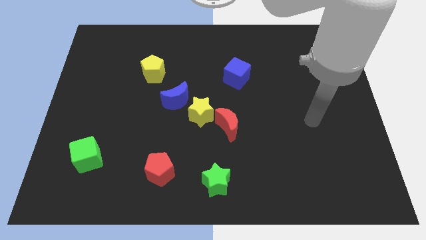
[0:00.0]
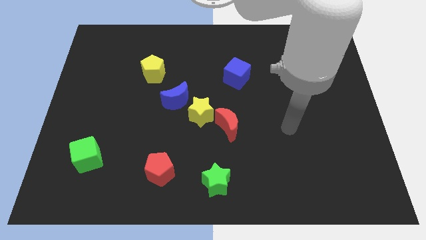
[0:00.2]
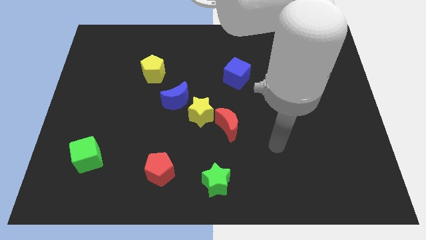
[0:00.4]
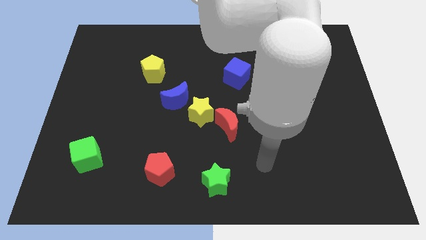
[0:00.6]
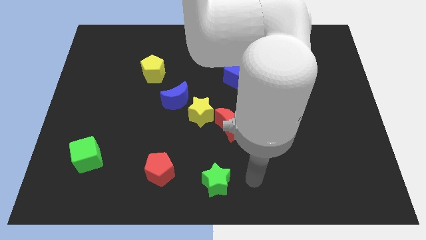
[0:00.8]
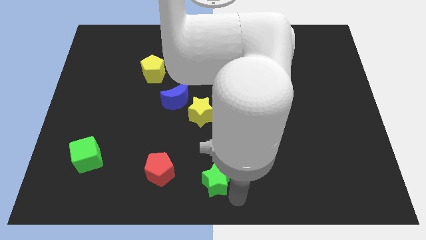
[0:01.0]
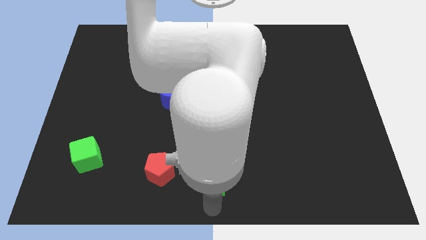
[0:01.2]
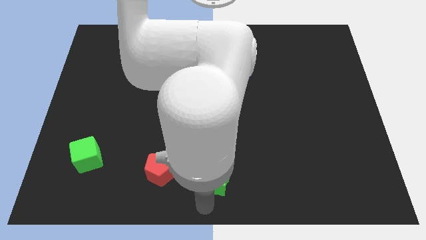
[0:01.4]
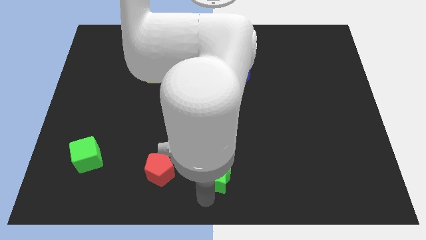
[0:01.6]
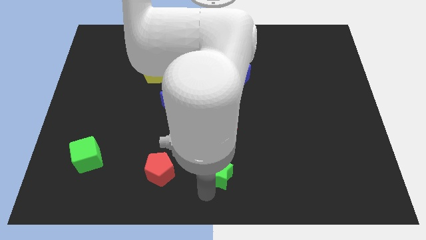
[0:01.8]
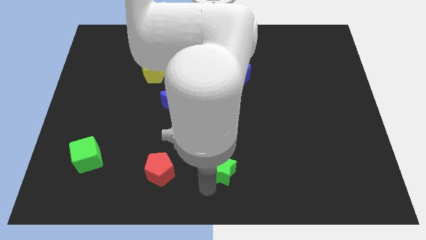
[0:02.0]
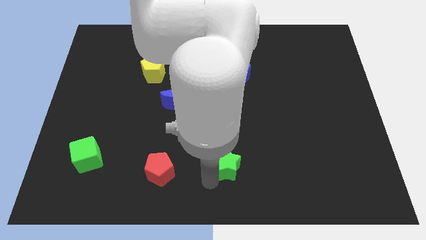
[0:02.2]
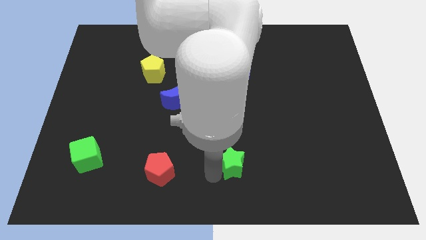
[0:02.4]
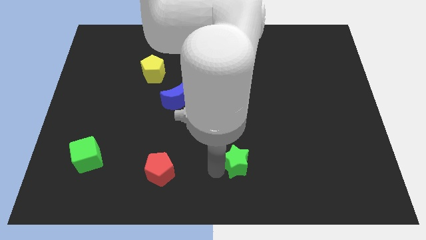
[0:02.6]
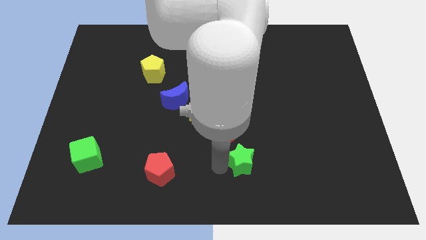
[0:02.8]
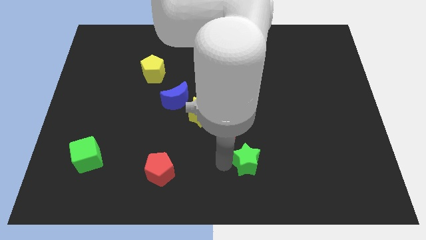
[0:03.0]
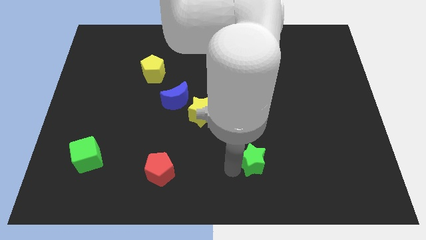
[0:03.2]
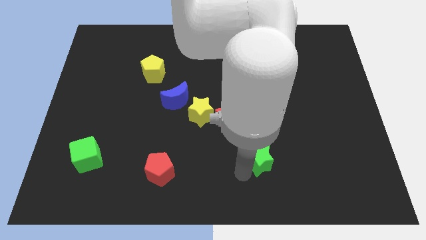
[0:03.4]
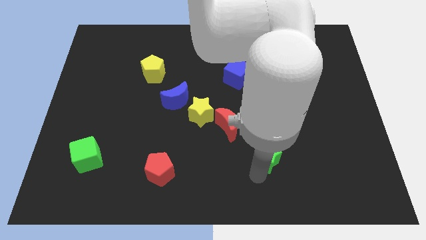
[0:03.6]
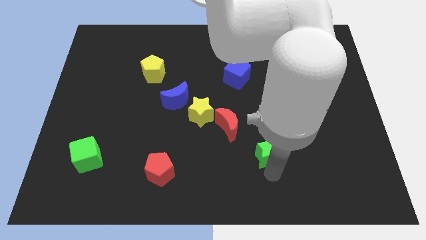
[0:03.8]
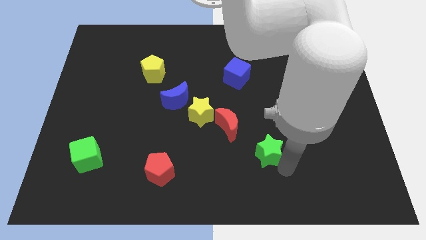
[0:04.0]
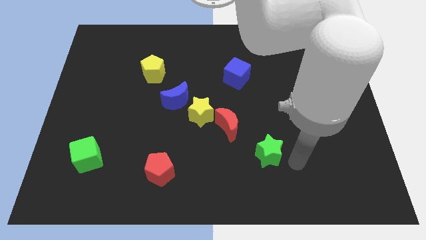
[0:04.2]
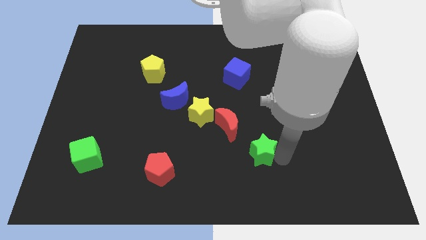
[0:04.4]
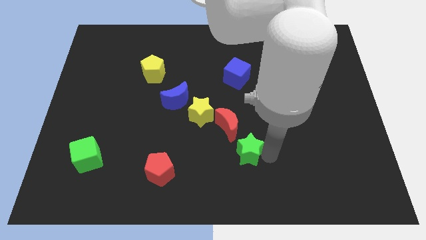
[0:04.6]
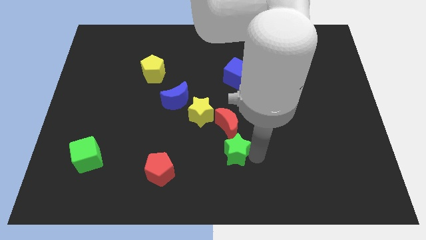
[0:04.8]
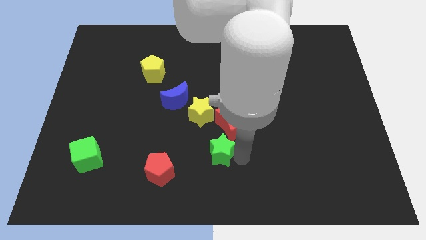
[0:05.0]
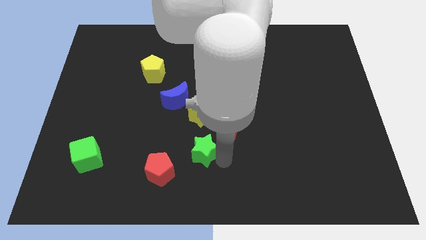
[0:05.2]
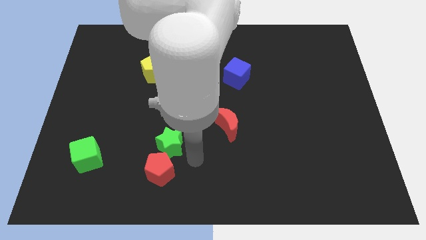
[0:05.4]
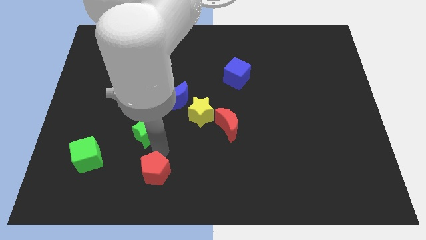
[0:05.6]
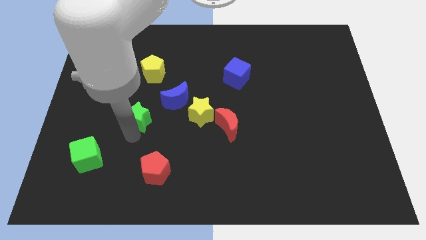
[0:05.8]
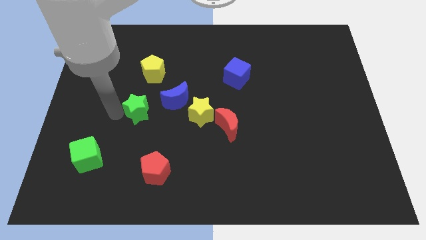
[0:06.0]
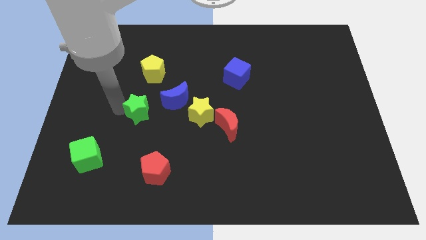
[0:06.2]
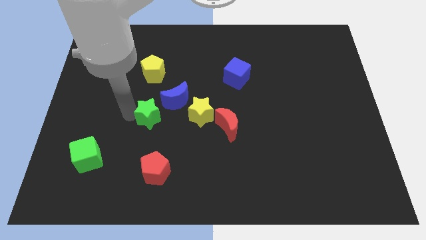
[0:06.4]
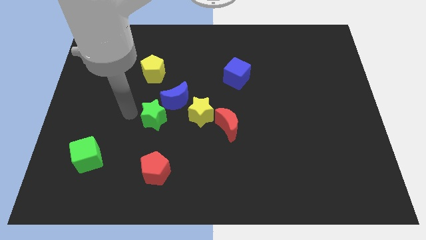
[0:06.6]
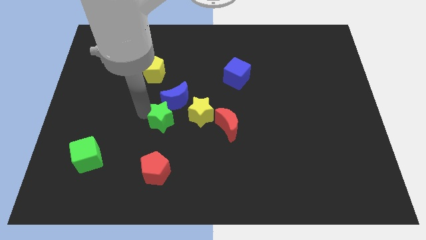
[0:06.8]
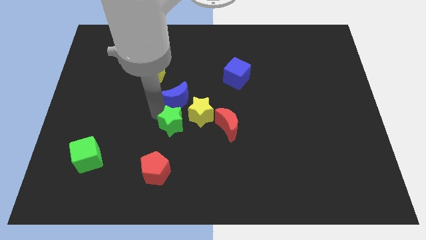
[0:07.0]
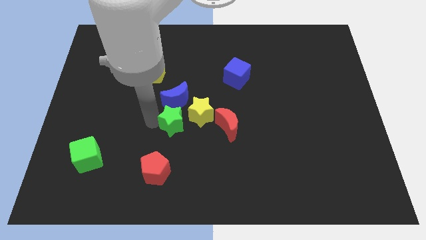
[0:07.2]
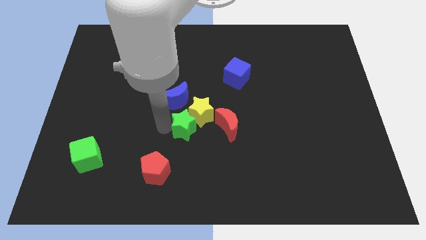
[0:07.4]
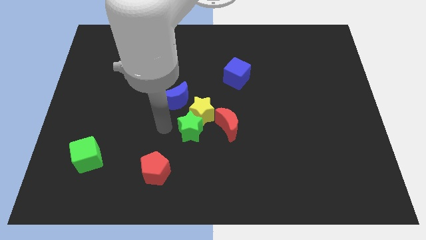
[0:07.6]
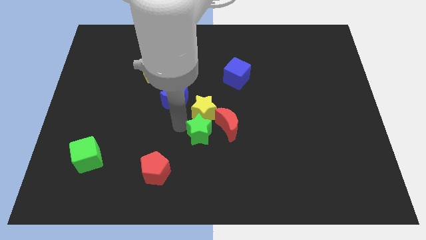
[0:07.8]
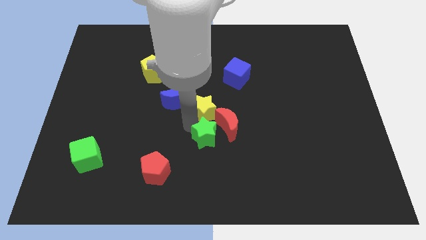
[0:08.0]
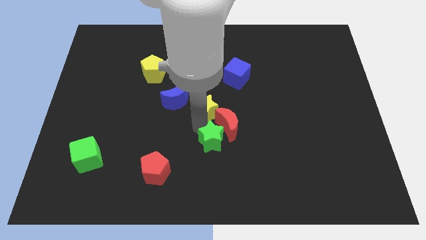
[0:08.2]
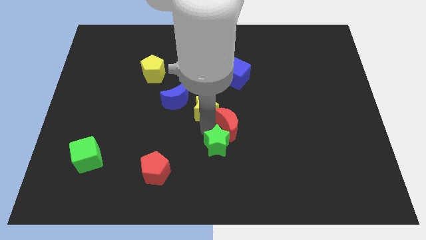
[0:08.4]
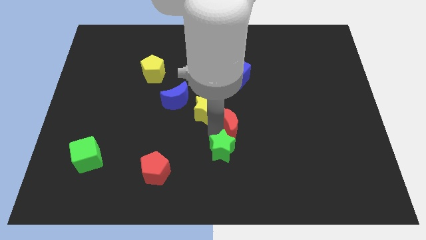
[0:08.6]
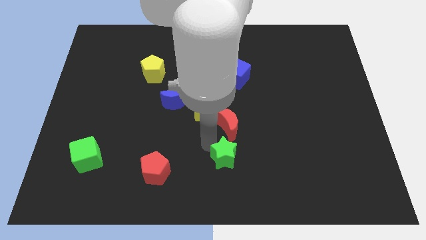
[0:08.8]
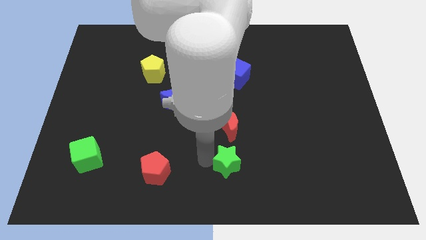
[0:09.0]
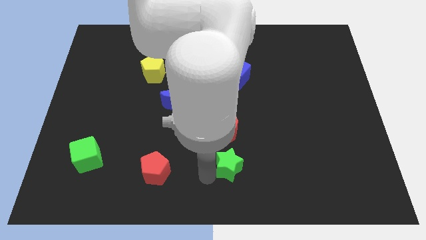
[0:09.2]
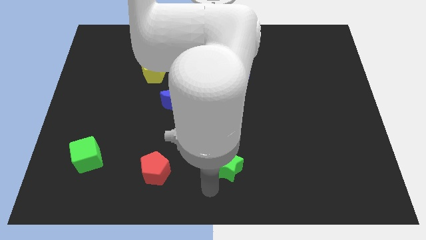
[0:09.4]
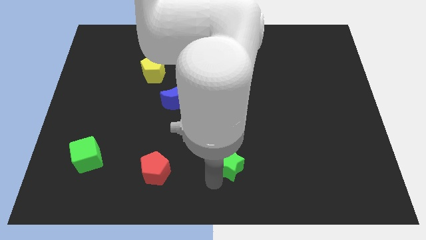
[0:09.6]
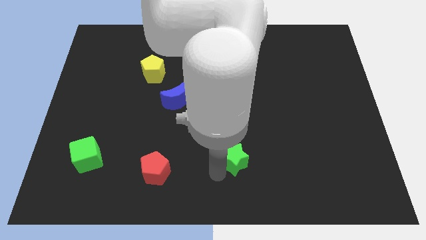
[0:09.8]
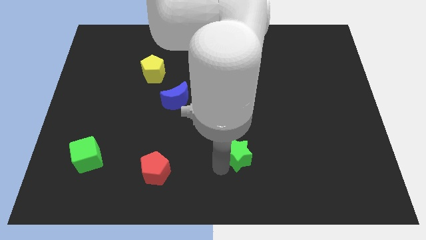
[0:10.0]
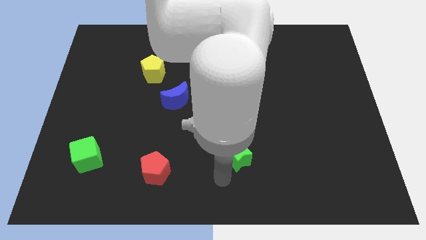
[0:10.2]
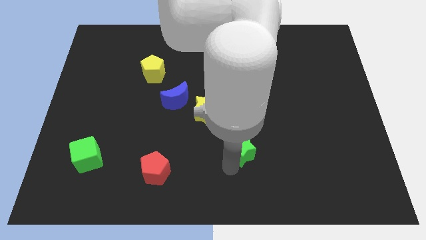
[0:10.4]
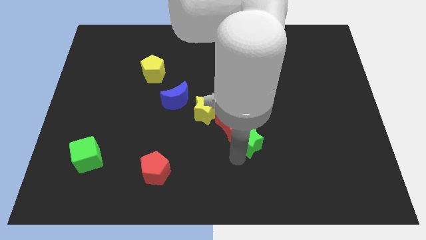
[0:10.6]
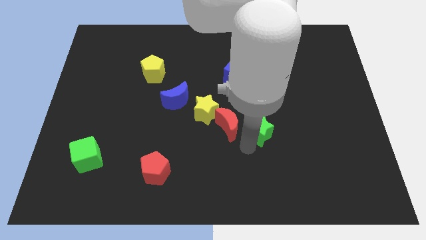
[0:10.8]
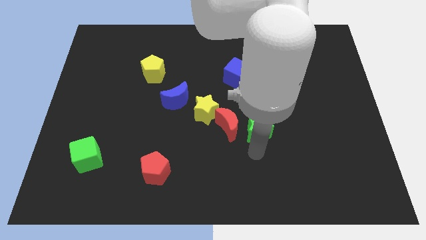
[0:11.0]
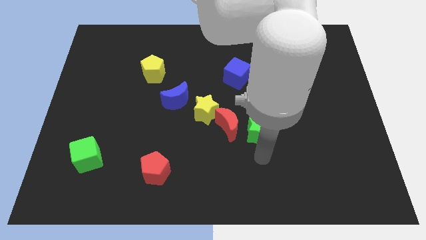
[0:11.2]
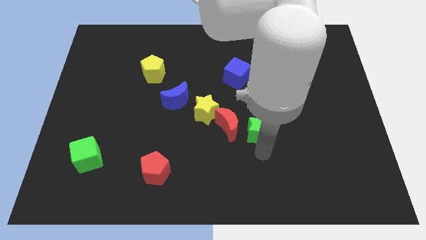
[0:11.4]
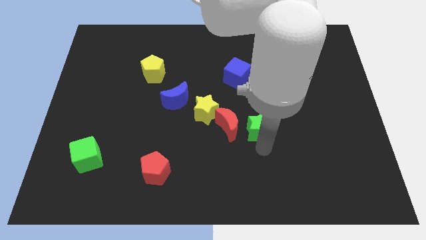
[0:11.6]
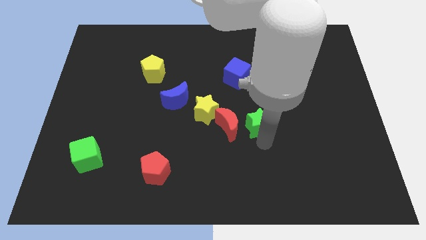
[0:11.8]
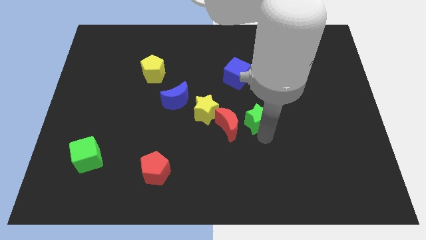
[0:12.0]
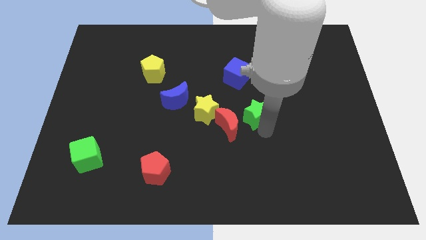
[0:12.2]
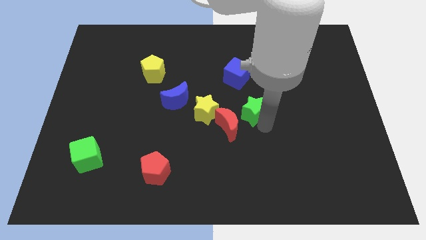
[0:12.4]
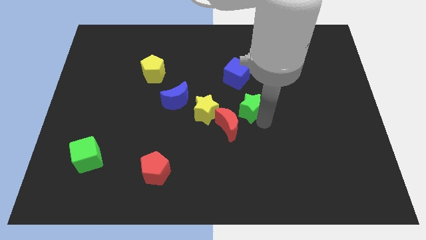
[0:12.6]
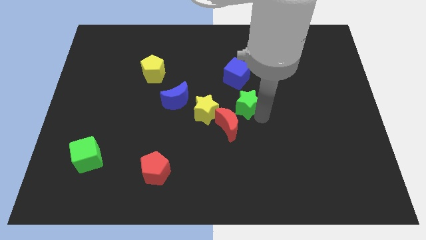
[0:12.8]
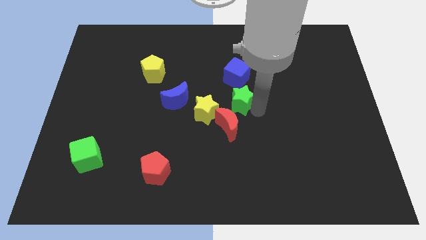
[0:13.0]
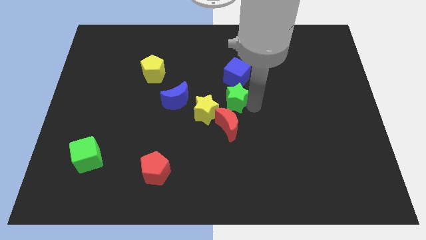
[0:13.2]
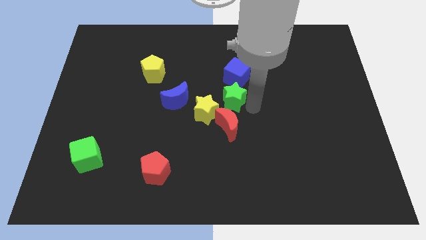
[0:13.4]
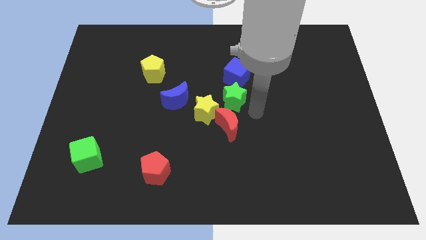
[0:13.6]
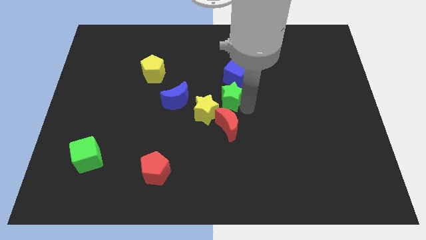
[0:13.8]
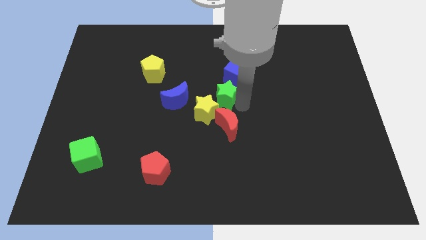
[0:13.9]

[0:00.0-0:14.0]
move the green star to the top of the yellow star
